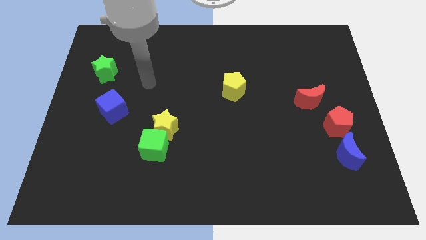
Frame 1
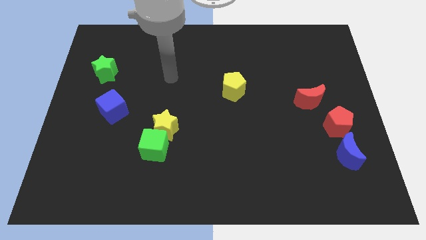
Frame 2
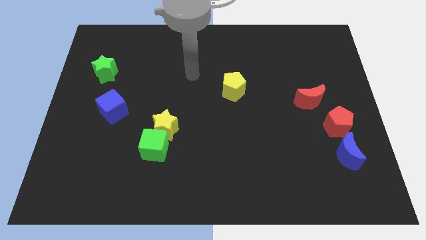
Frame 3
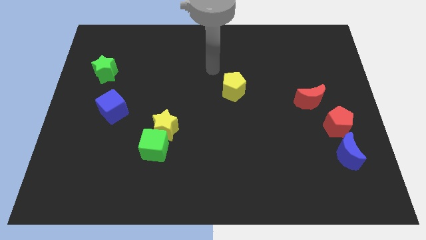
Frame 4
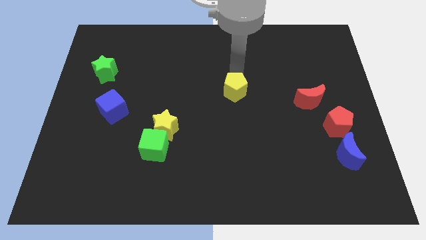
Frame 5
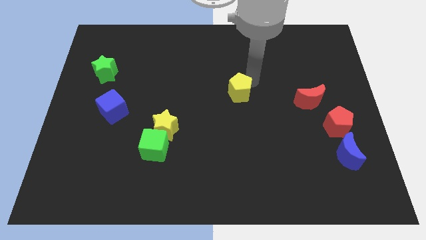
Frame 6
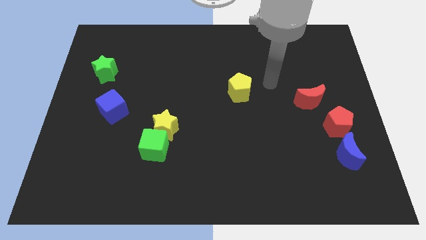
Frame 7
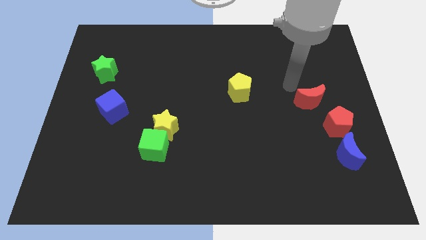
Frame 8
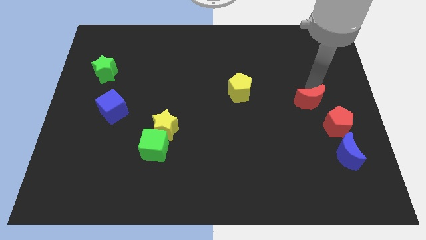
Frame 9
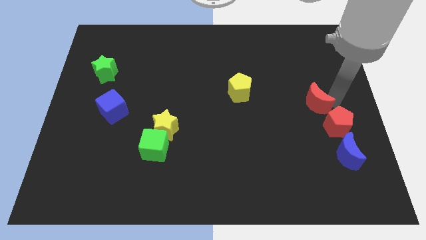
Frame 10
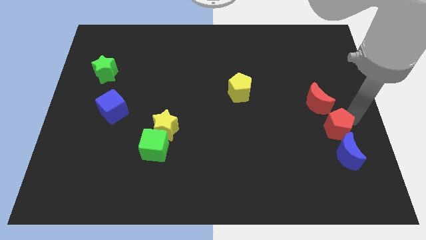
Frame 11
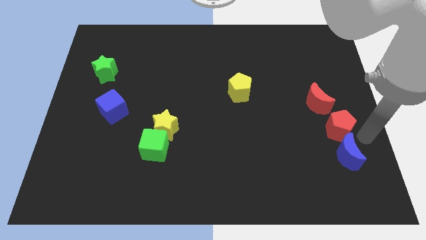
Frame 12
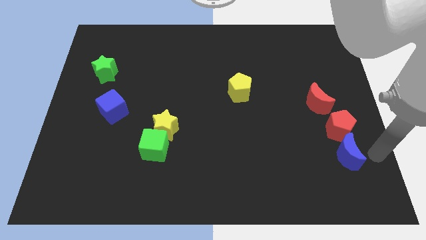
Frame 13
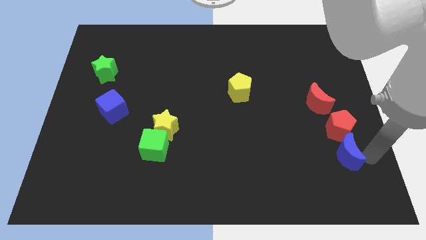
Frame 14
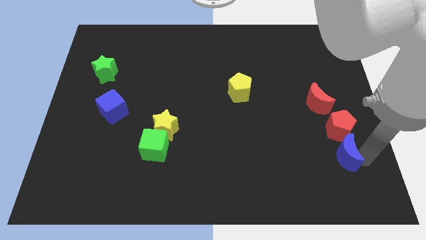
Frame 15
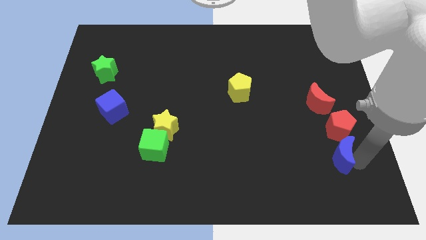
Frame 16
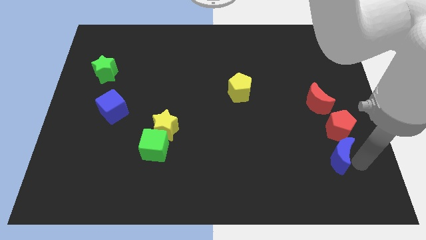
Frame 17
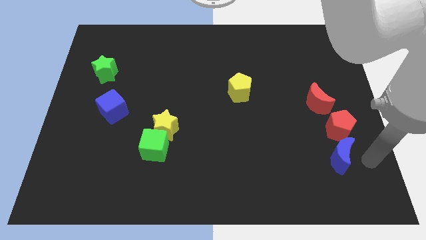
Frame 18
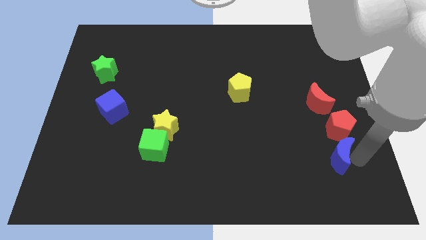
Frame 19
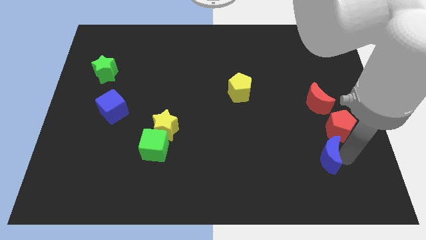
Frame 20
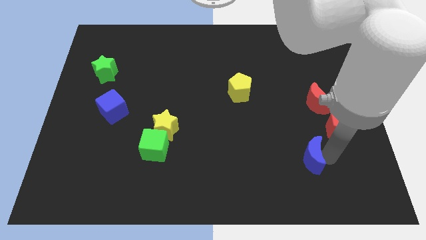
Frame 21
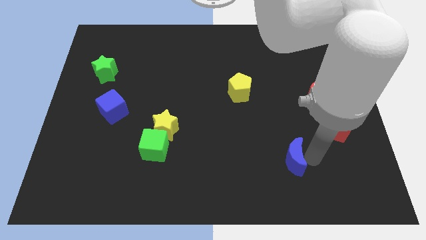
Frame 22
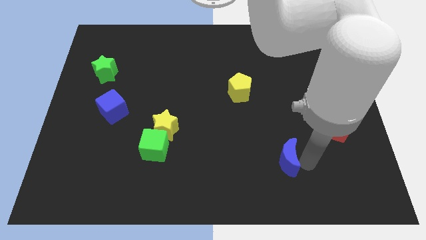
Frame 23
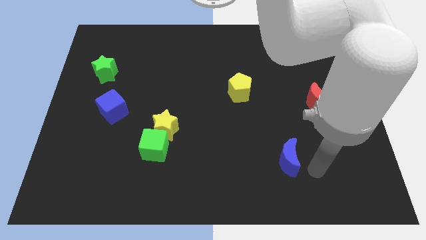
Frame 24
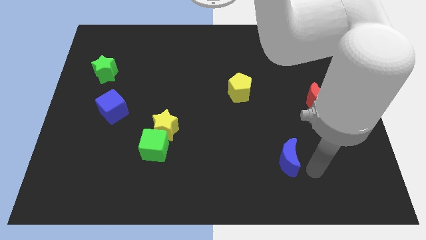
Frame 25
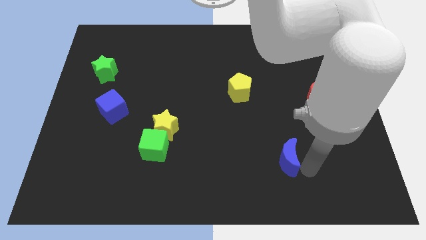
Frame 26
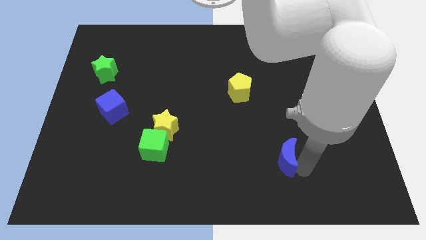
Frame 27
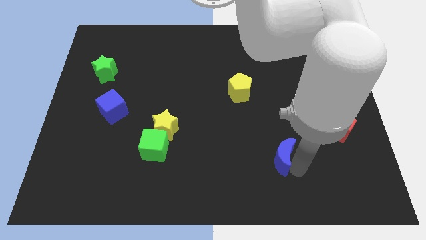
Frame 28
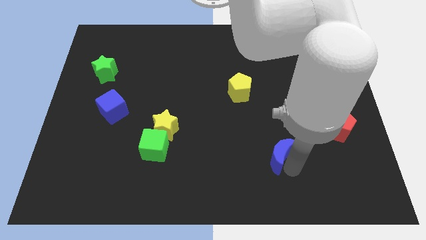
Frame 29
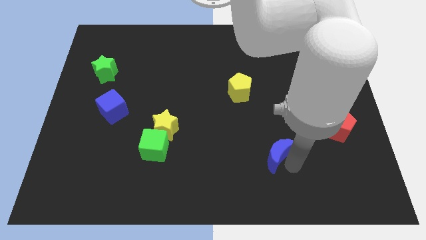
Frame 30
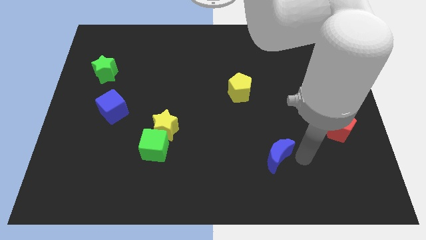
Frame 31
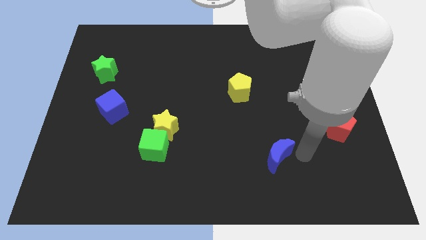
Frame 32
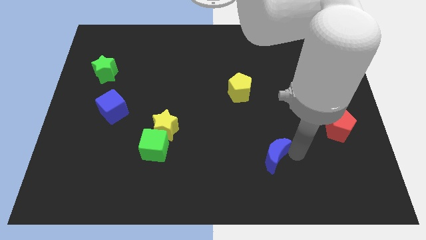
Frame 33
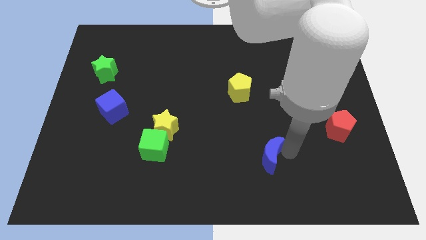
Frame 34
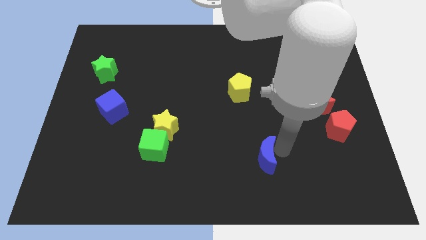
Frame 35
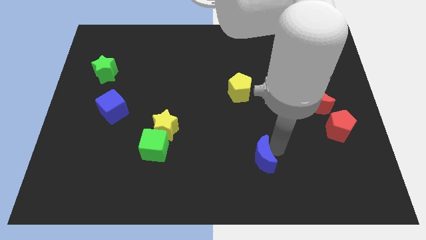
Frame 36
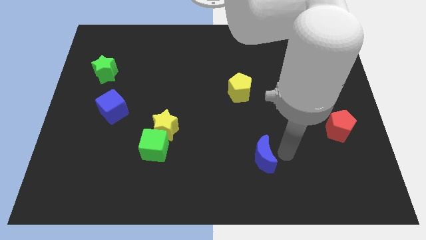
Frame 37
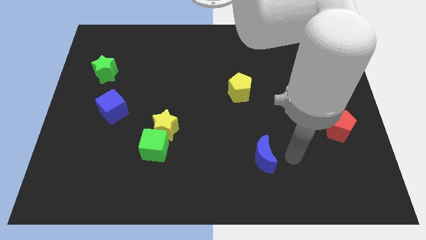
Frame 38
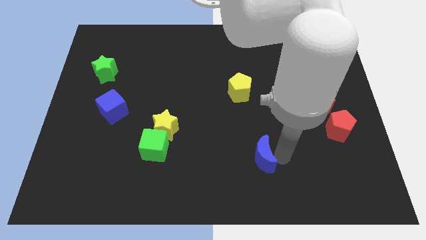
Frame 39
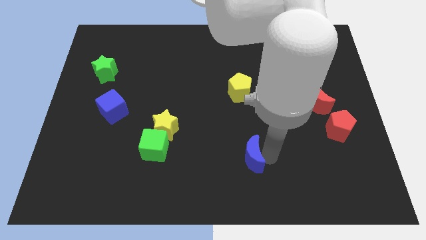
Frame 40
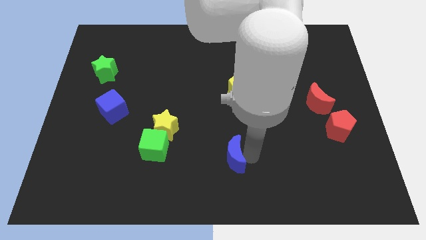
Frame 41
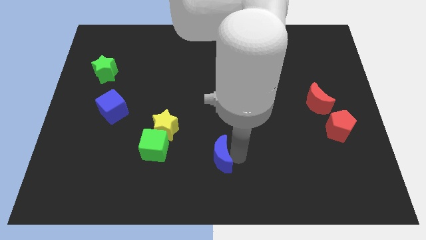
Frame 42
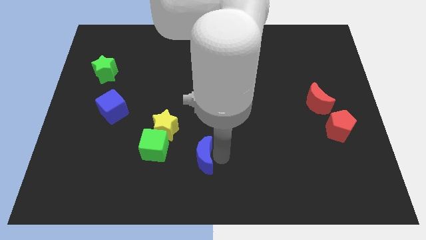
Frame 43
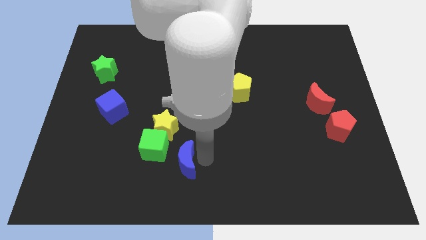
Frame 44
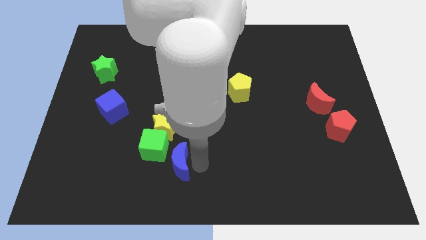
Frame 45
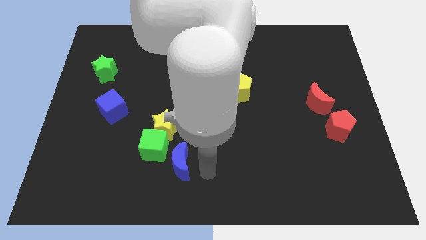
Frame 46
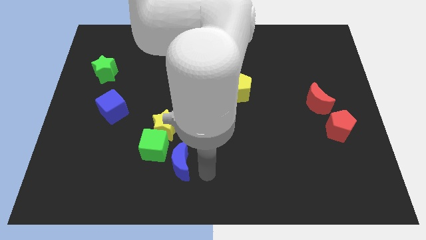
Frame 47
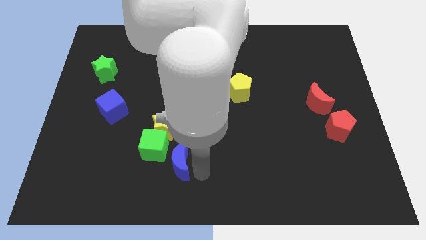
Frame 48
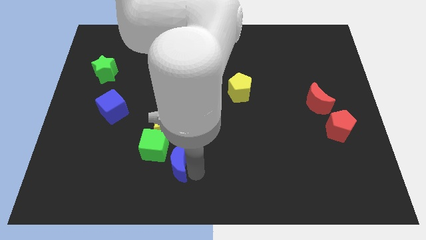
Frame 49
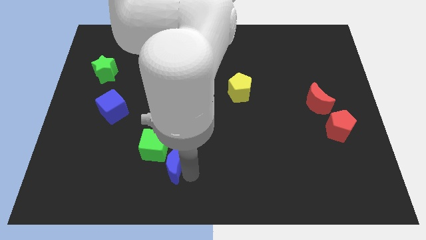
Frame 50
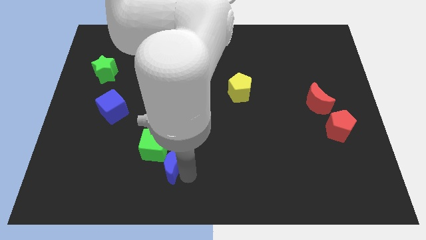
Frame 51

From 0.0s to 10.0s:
move the blue moon next to the green cube

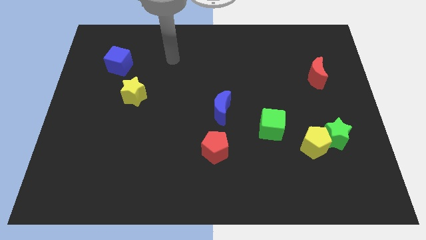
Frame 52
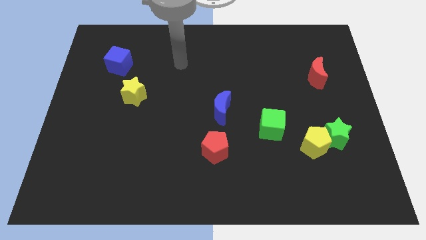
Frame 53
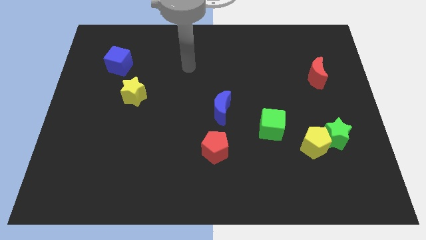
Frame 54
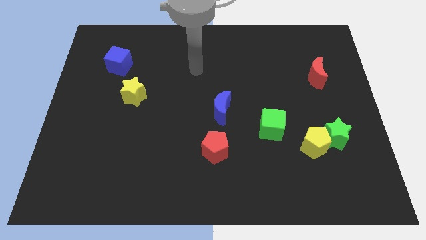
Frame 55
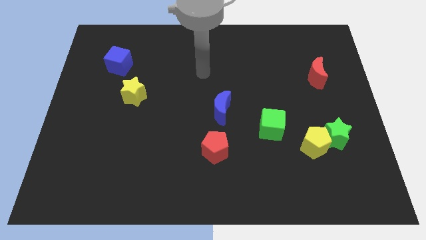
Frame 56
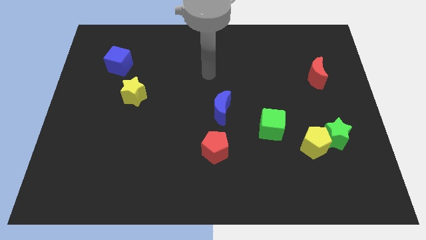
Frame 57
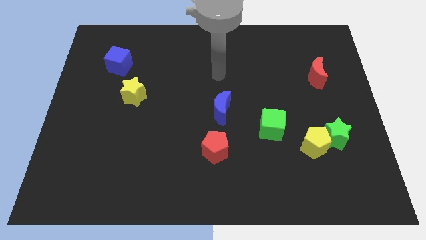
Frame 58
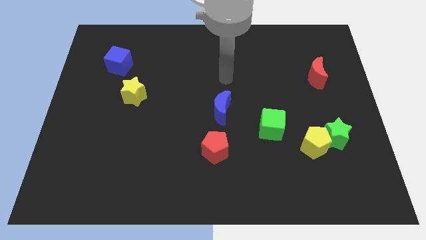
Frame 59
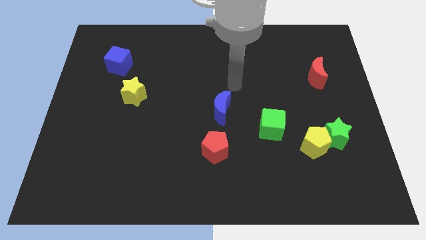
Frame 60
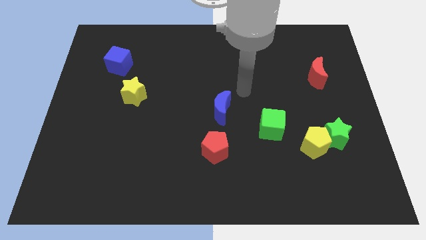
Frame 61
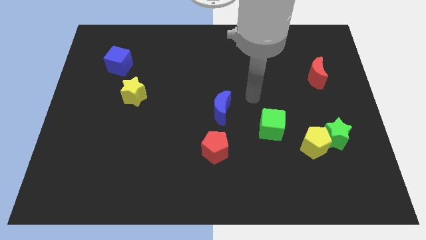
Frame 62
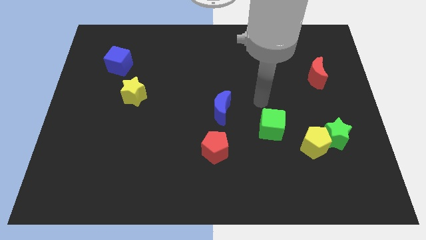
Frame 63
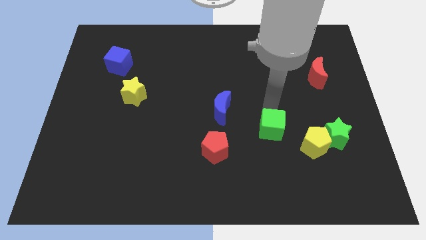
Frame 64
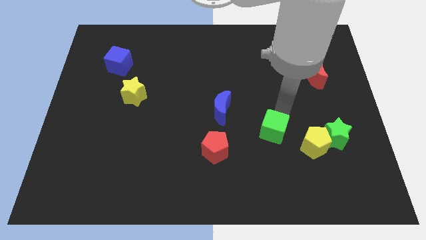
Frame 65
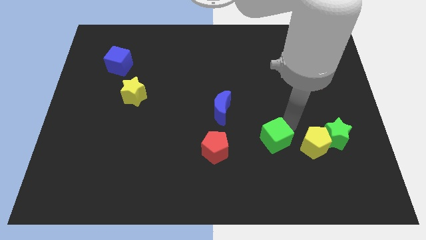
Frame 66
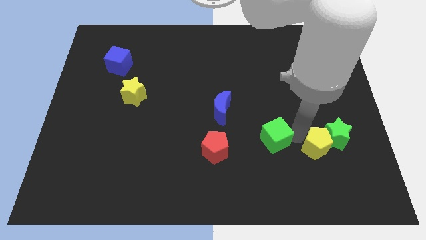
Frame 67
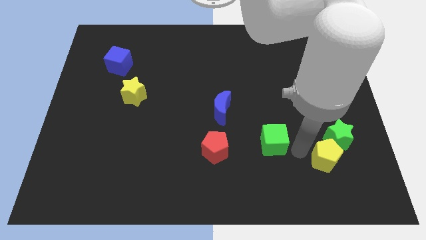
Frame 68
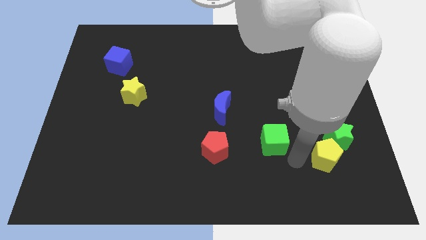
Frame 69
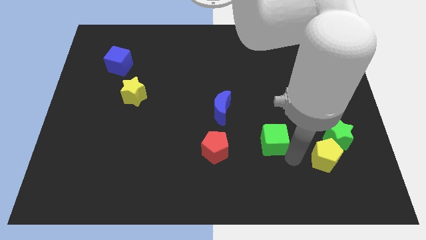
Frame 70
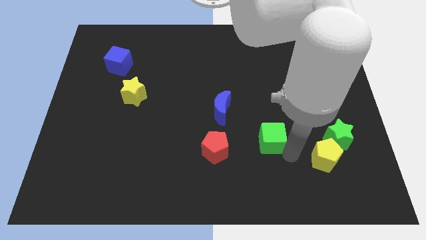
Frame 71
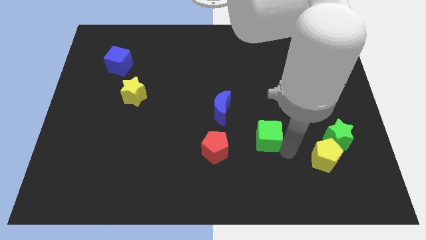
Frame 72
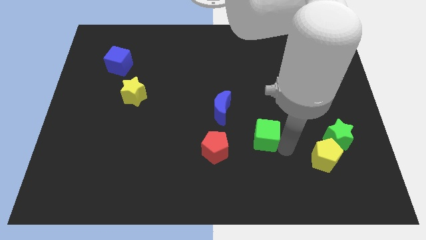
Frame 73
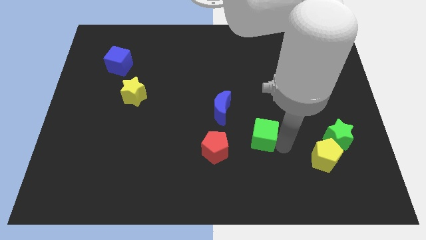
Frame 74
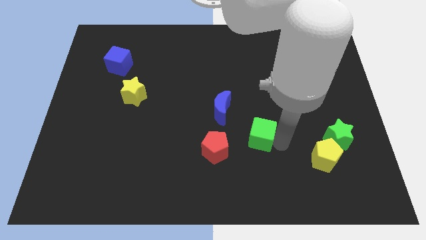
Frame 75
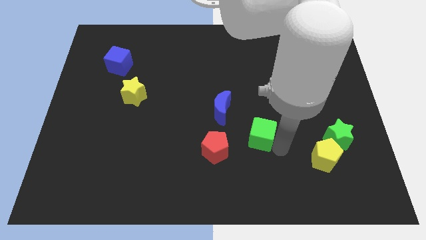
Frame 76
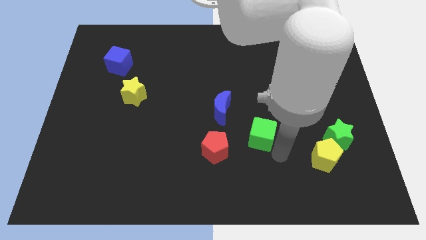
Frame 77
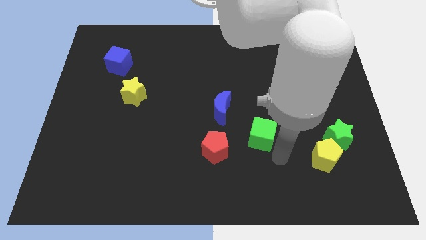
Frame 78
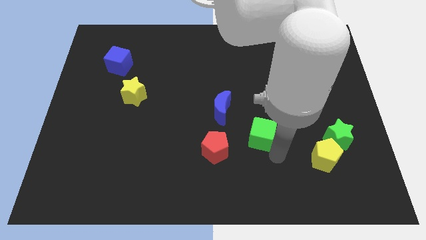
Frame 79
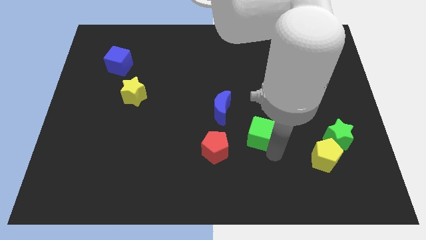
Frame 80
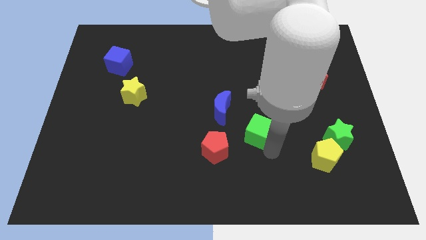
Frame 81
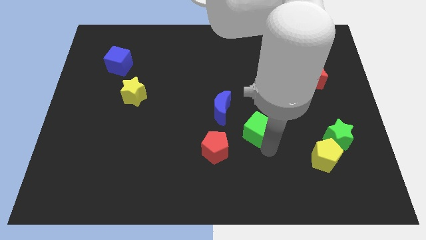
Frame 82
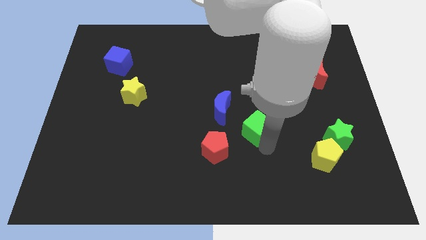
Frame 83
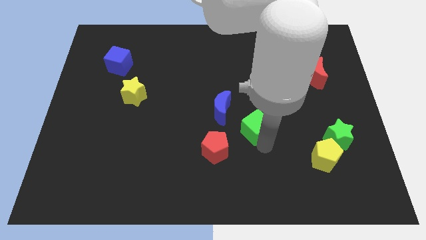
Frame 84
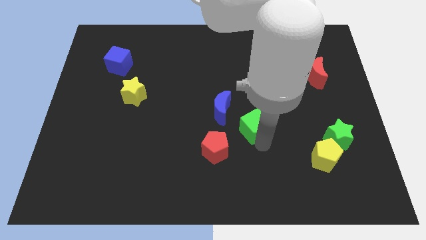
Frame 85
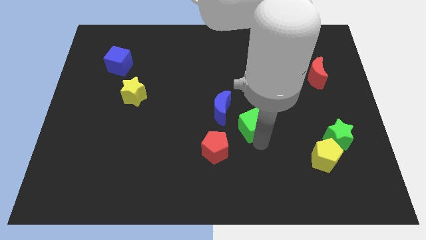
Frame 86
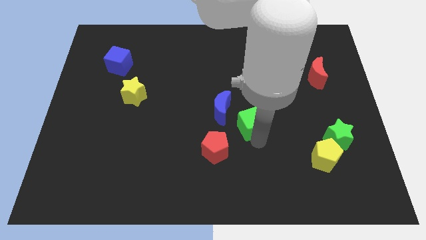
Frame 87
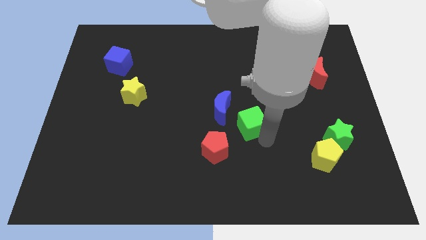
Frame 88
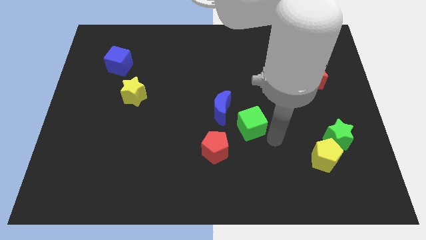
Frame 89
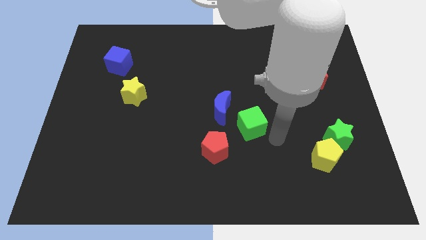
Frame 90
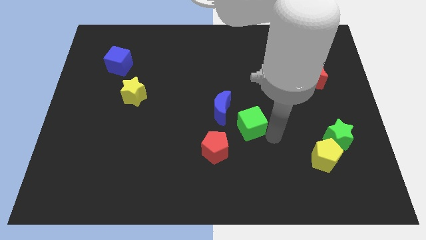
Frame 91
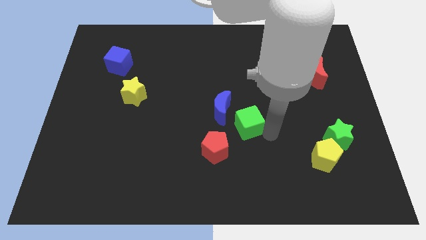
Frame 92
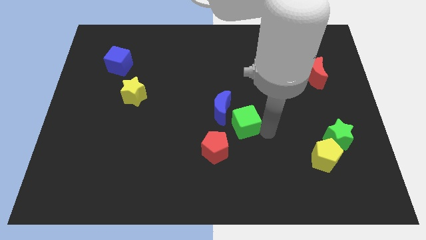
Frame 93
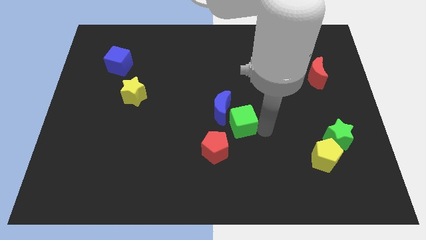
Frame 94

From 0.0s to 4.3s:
move the green cube next to the blue moon
